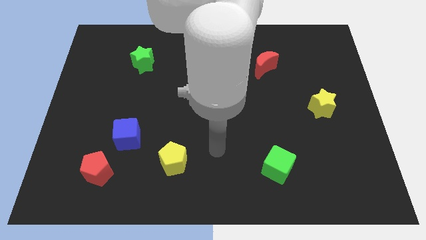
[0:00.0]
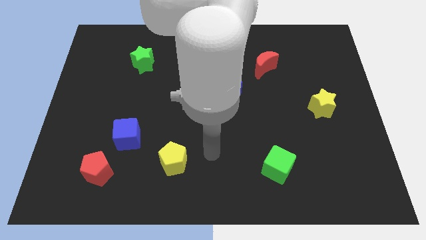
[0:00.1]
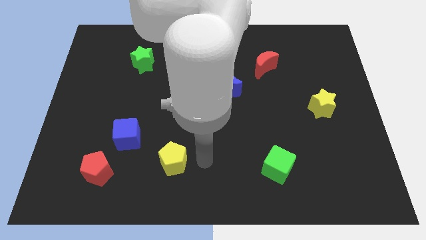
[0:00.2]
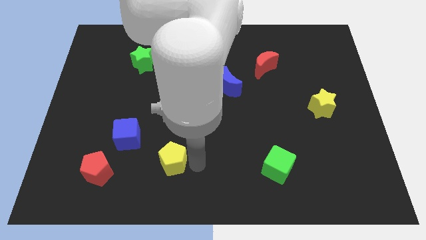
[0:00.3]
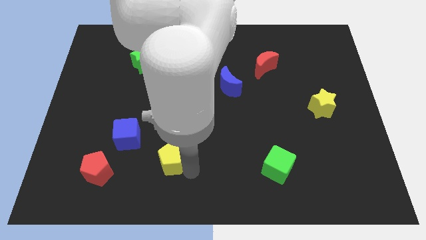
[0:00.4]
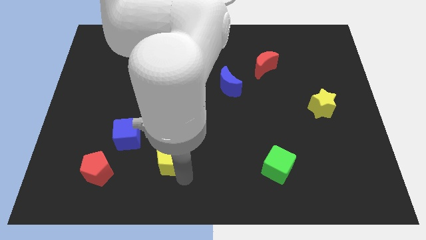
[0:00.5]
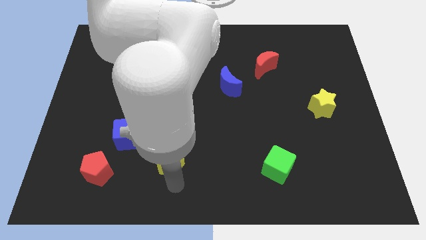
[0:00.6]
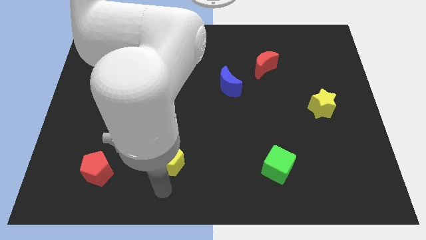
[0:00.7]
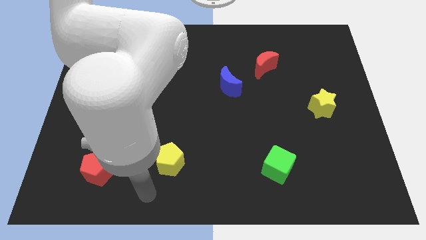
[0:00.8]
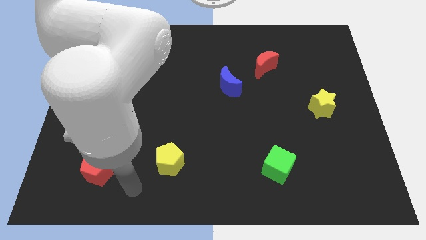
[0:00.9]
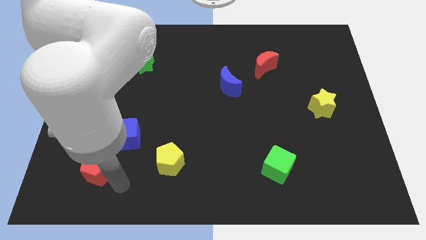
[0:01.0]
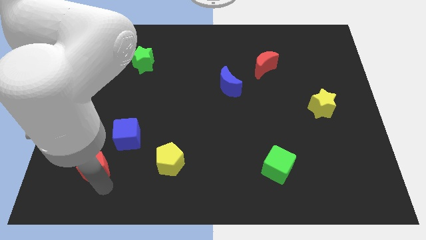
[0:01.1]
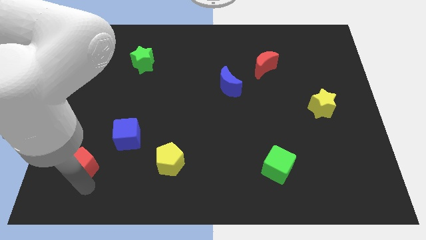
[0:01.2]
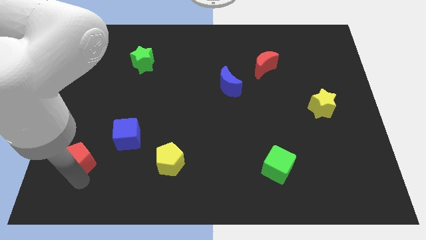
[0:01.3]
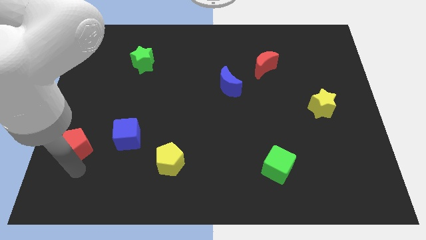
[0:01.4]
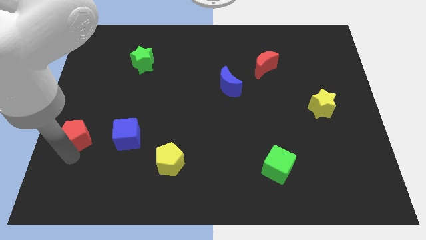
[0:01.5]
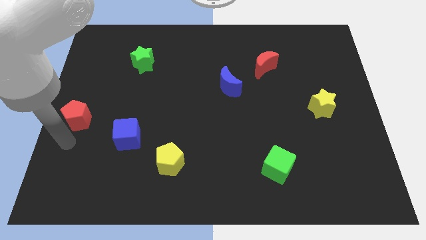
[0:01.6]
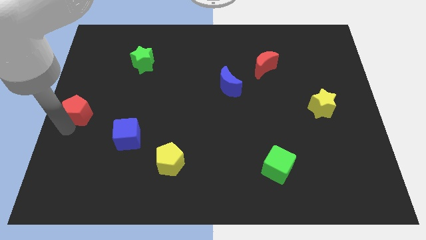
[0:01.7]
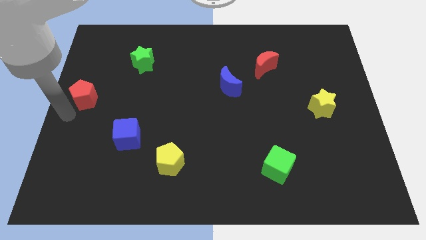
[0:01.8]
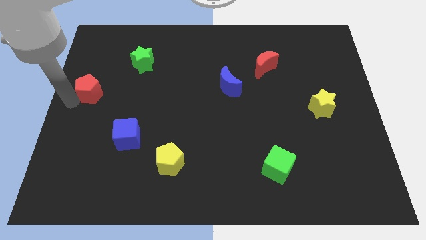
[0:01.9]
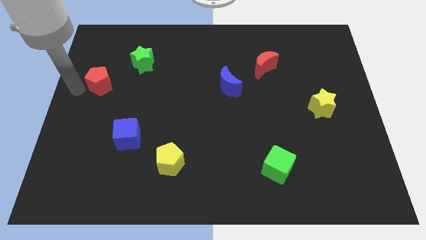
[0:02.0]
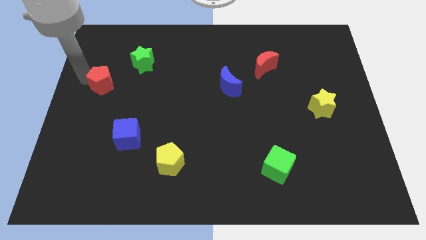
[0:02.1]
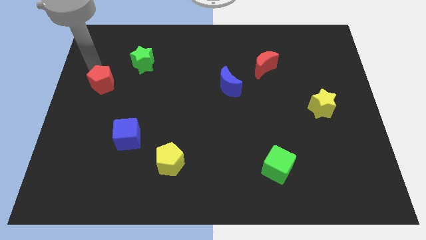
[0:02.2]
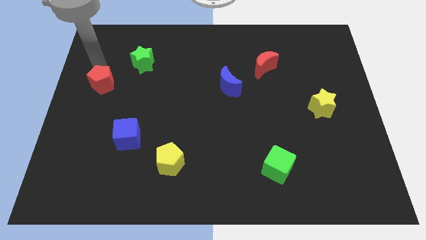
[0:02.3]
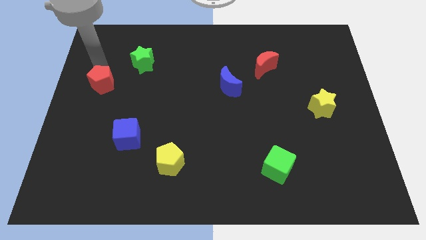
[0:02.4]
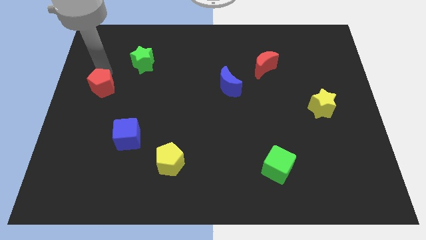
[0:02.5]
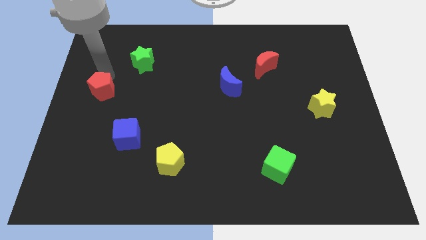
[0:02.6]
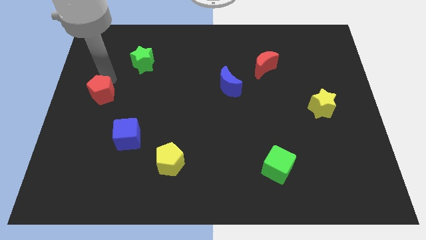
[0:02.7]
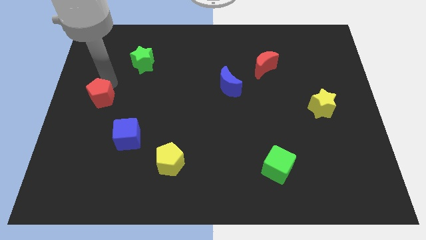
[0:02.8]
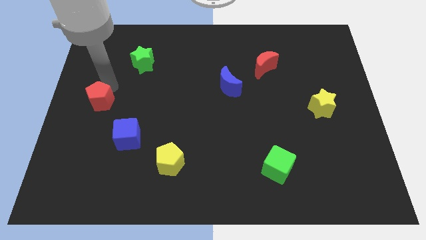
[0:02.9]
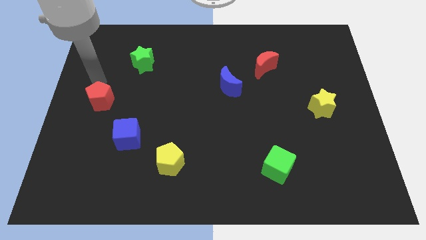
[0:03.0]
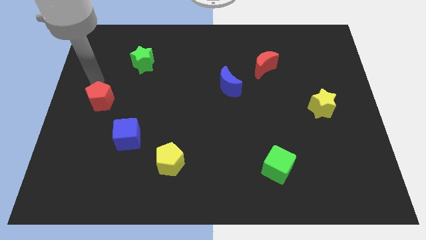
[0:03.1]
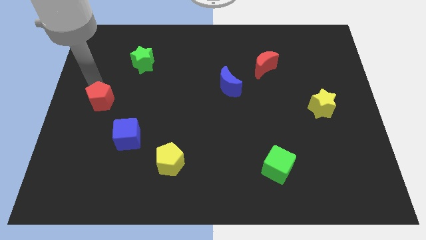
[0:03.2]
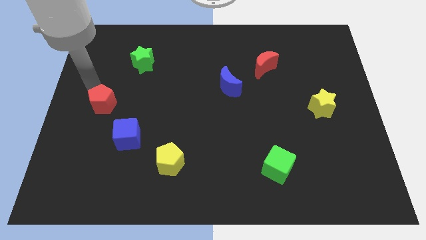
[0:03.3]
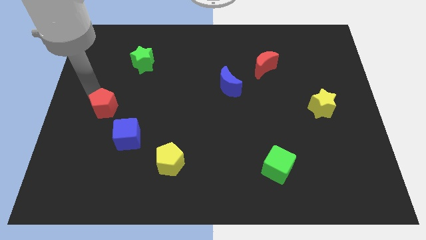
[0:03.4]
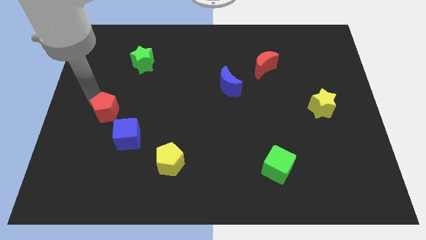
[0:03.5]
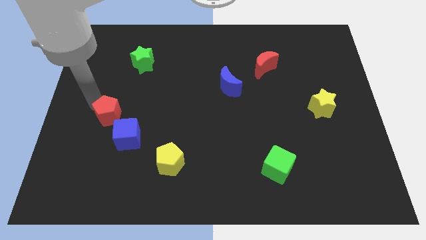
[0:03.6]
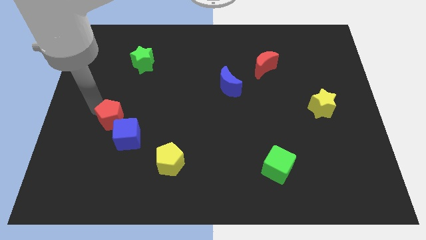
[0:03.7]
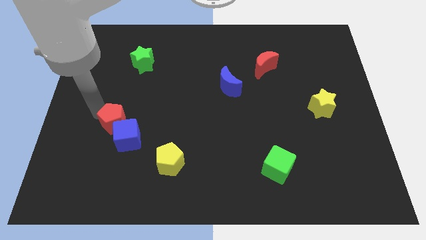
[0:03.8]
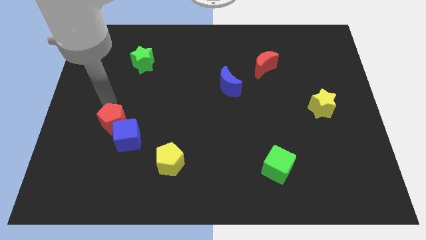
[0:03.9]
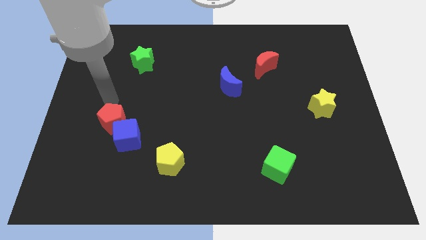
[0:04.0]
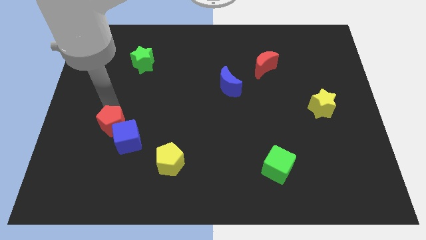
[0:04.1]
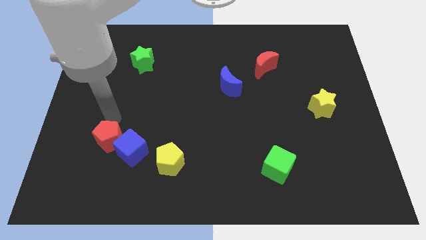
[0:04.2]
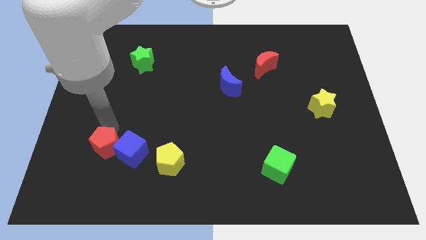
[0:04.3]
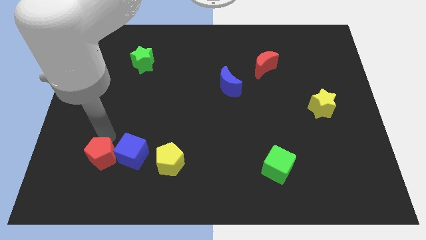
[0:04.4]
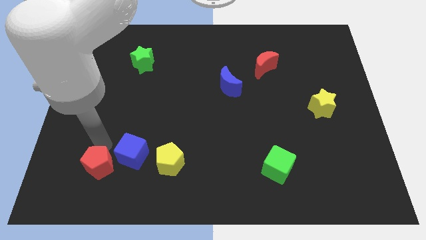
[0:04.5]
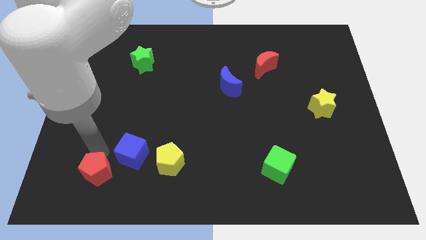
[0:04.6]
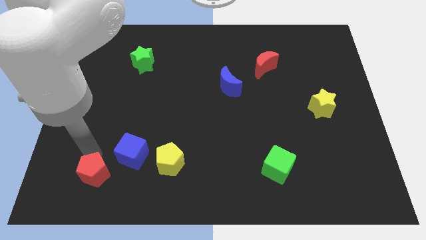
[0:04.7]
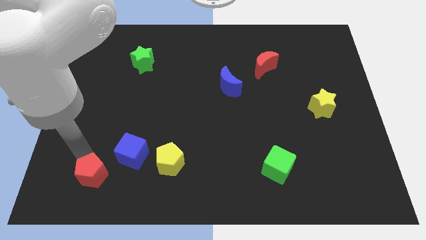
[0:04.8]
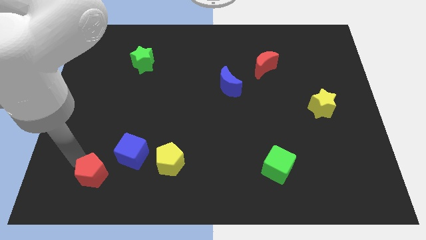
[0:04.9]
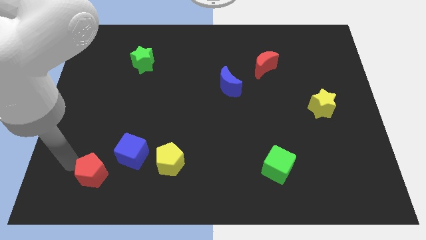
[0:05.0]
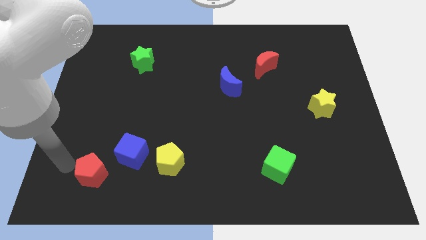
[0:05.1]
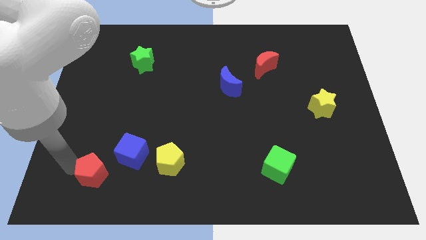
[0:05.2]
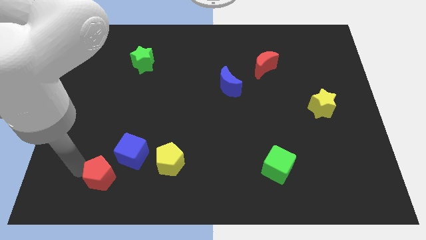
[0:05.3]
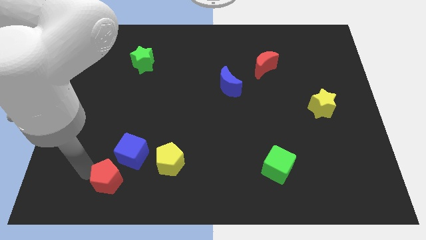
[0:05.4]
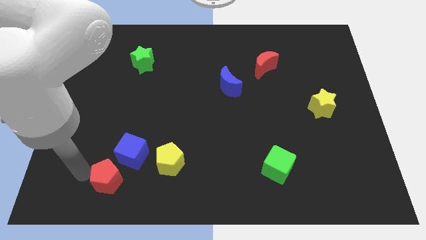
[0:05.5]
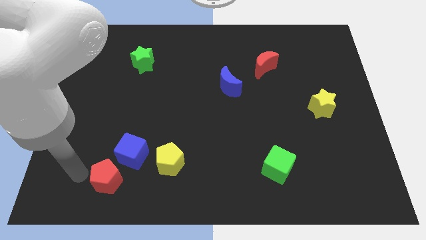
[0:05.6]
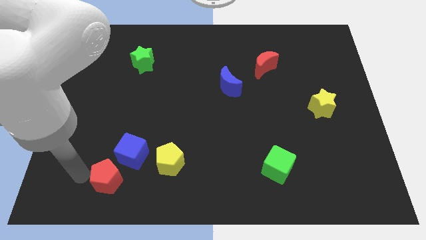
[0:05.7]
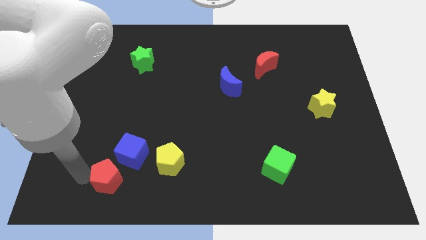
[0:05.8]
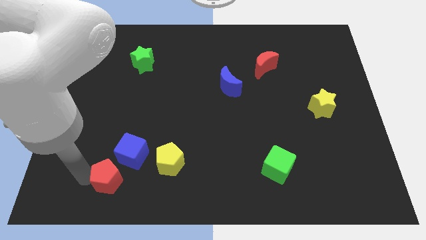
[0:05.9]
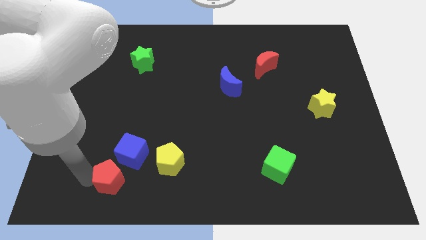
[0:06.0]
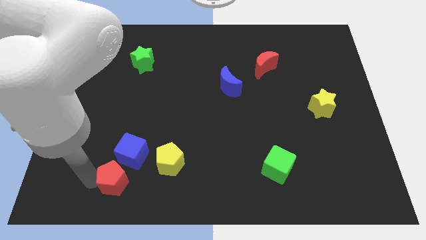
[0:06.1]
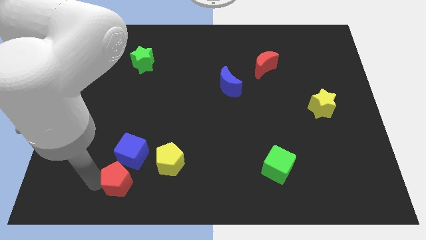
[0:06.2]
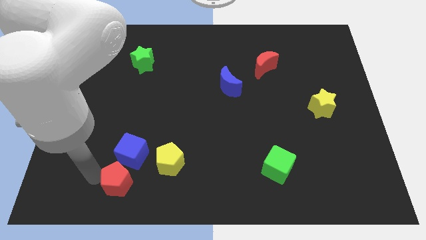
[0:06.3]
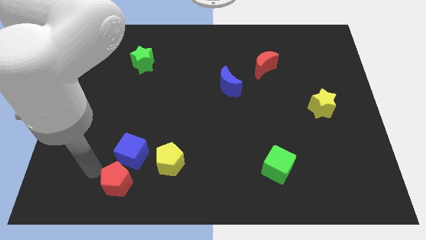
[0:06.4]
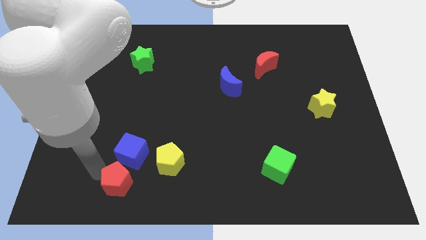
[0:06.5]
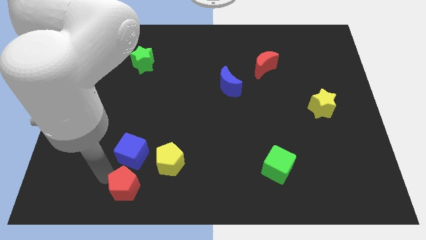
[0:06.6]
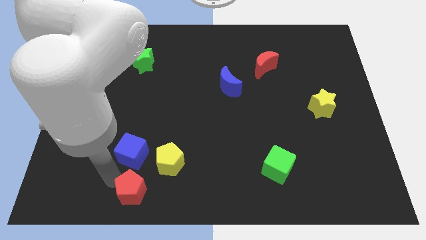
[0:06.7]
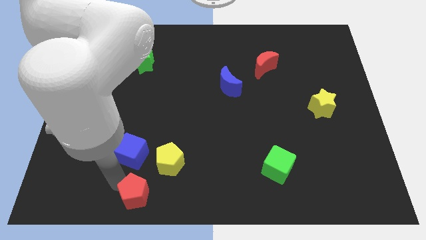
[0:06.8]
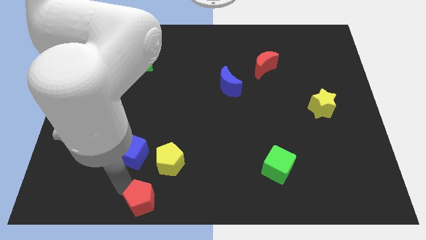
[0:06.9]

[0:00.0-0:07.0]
slide the red pentagon to the bottom
